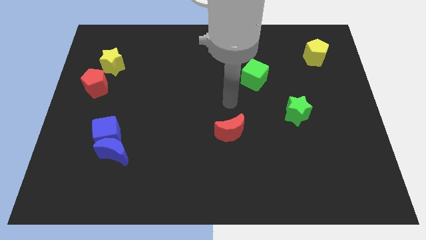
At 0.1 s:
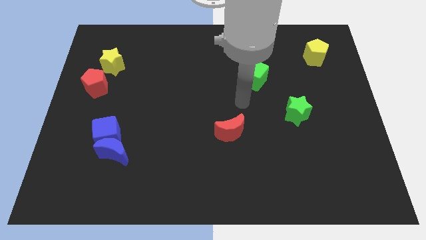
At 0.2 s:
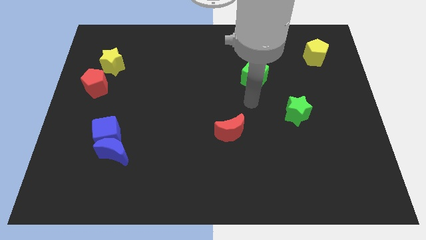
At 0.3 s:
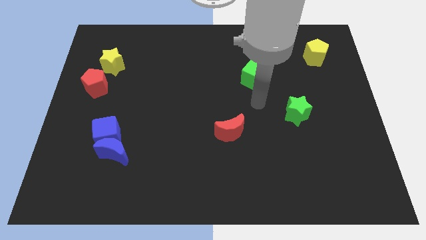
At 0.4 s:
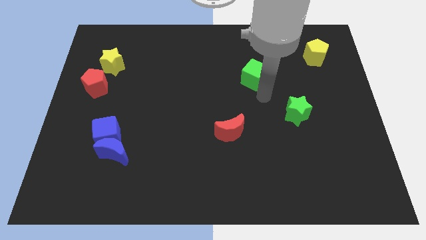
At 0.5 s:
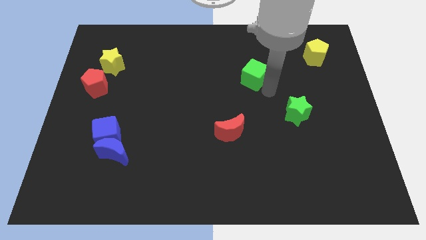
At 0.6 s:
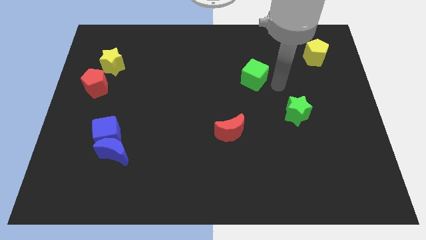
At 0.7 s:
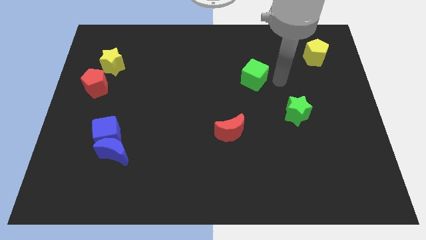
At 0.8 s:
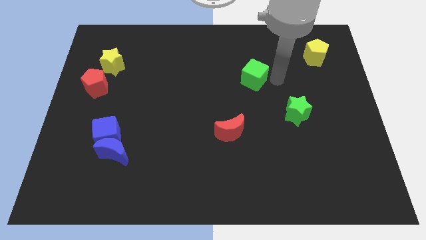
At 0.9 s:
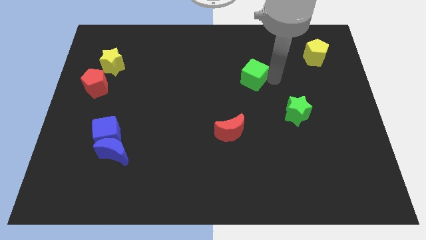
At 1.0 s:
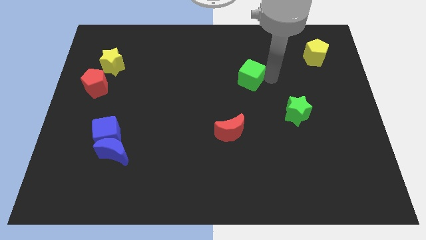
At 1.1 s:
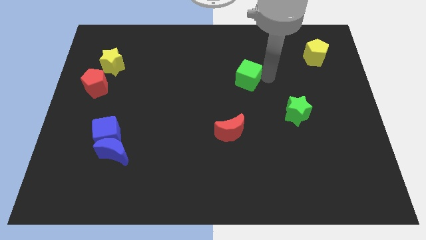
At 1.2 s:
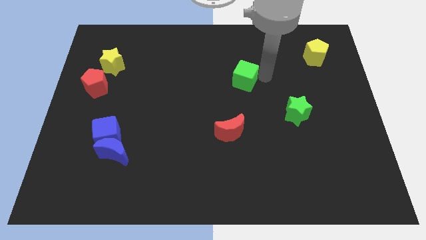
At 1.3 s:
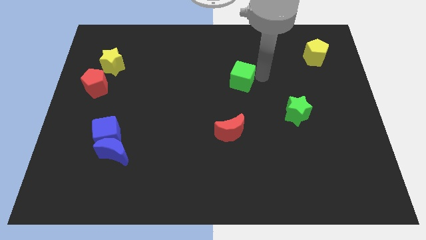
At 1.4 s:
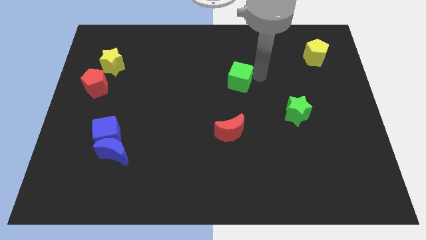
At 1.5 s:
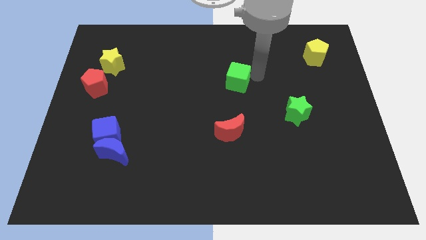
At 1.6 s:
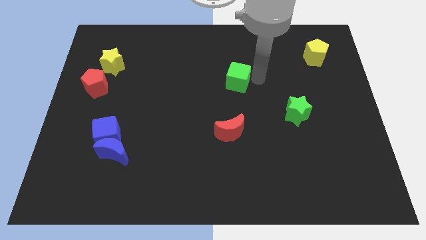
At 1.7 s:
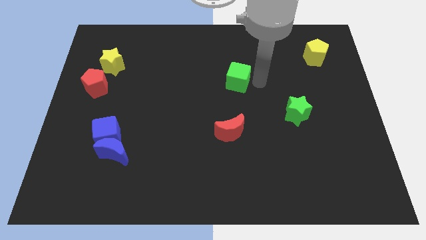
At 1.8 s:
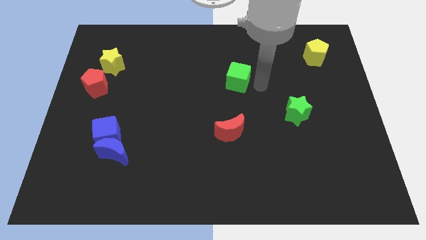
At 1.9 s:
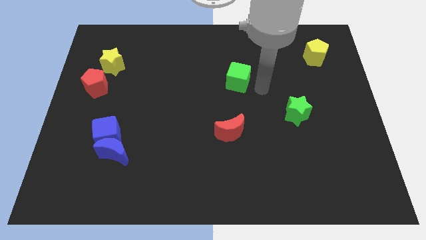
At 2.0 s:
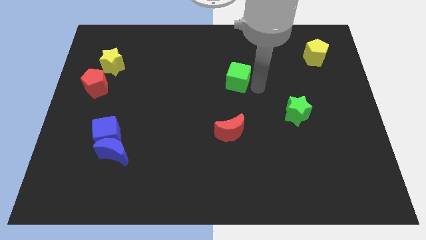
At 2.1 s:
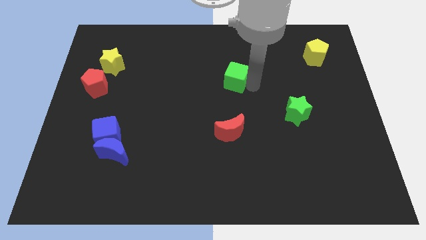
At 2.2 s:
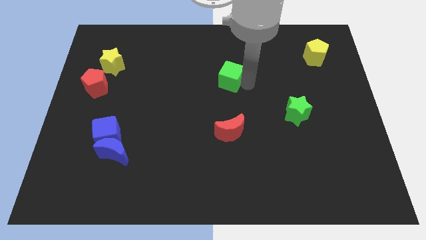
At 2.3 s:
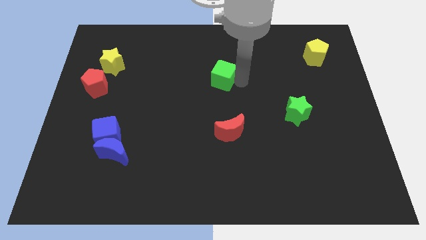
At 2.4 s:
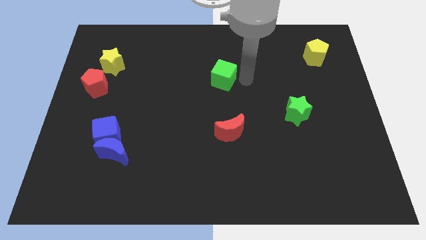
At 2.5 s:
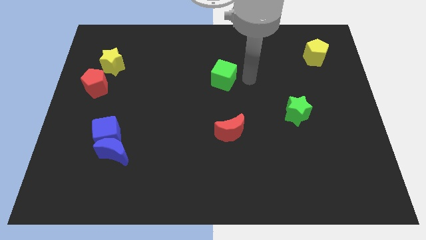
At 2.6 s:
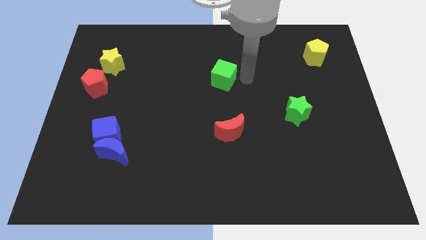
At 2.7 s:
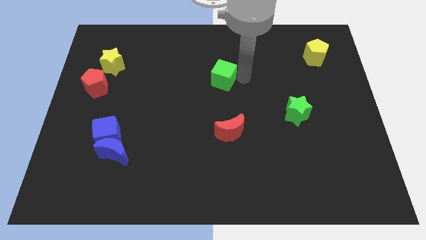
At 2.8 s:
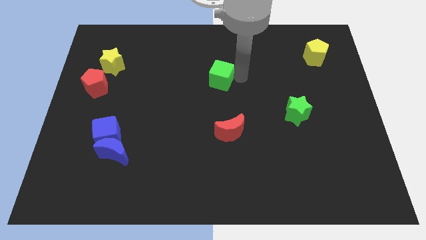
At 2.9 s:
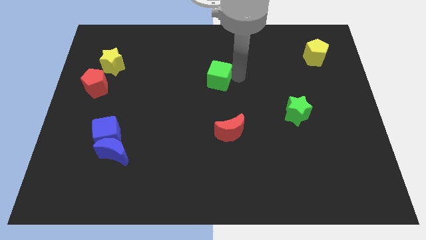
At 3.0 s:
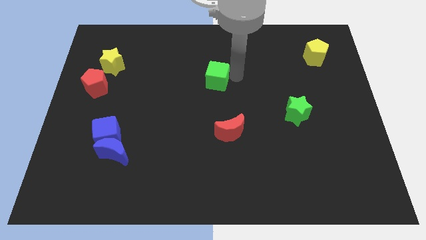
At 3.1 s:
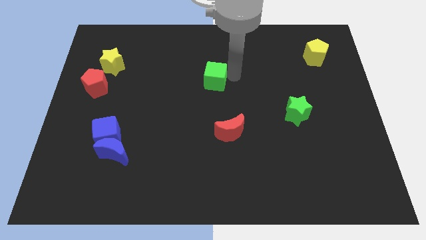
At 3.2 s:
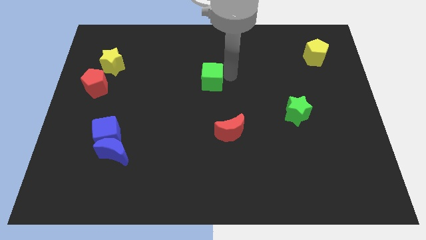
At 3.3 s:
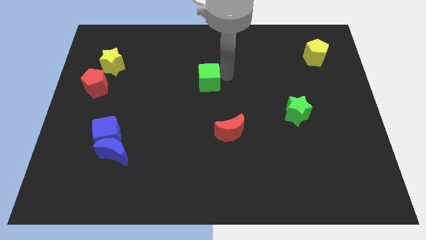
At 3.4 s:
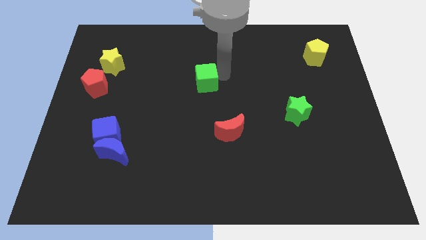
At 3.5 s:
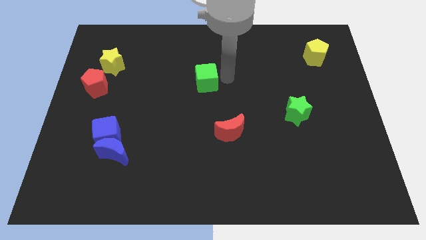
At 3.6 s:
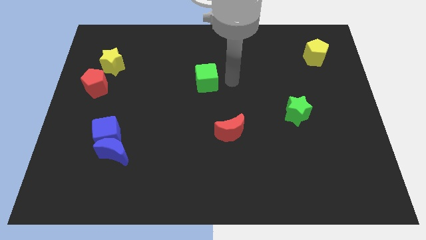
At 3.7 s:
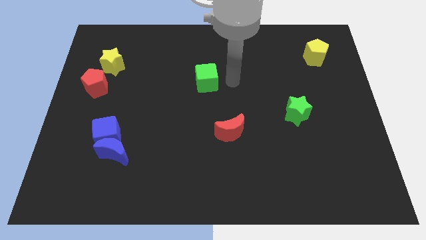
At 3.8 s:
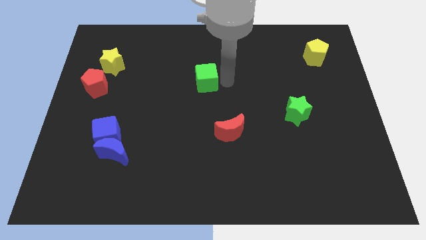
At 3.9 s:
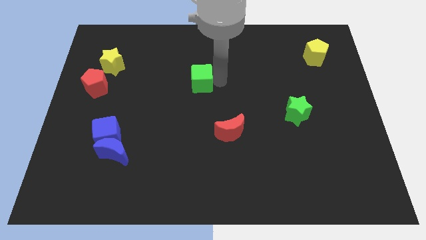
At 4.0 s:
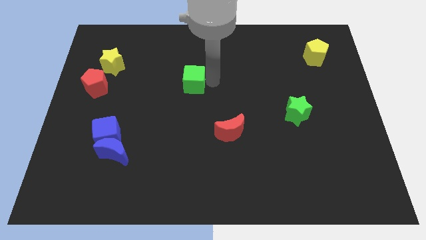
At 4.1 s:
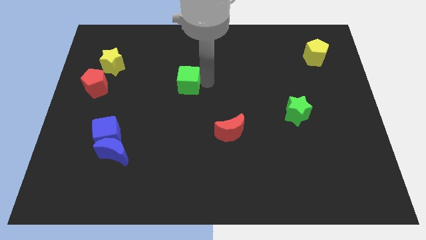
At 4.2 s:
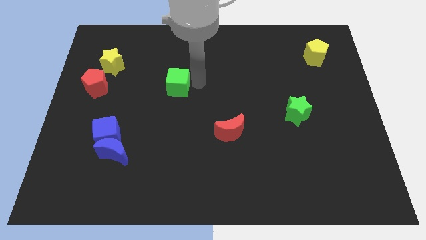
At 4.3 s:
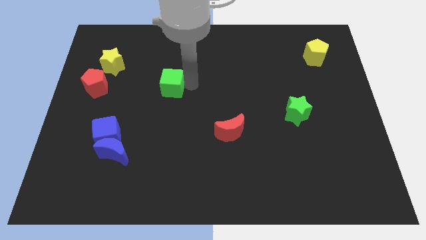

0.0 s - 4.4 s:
slide the green cube left

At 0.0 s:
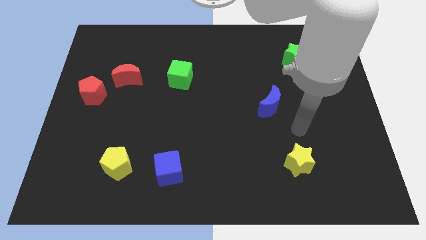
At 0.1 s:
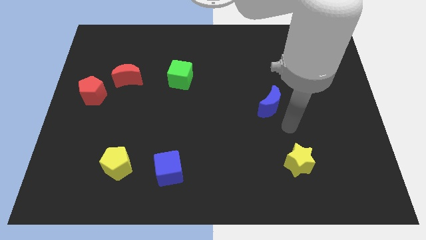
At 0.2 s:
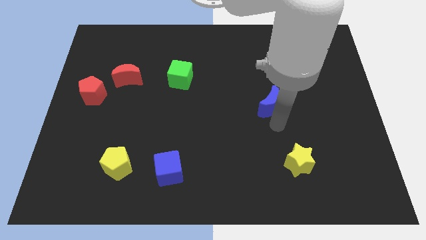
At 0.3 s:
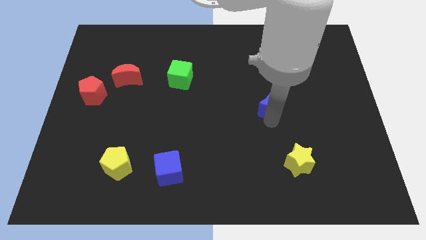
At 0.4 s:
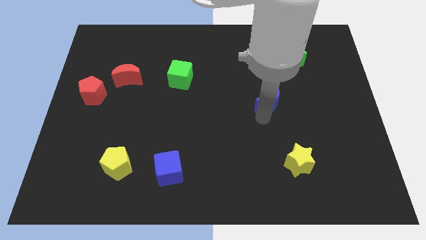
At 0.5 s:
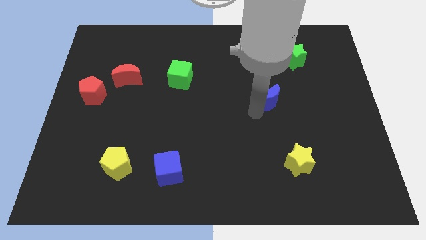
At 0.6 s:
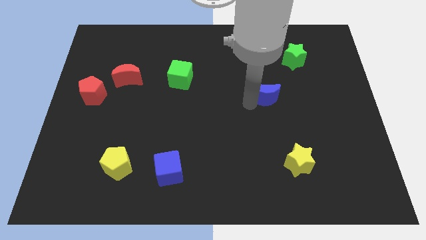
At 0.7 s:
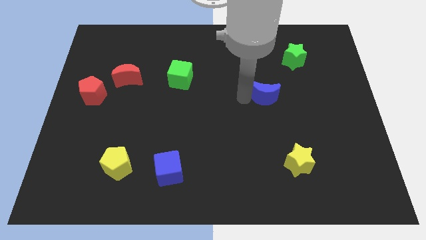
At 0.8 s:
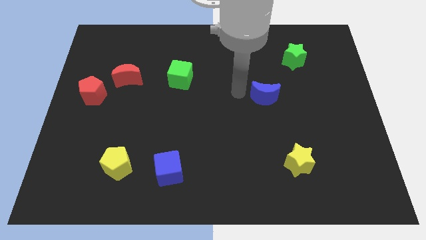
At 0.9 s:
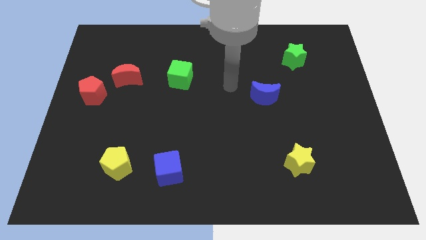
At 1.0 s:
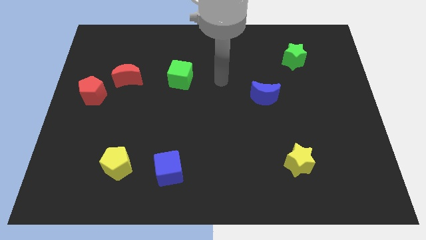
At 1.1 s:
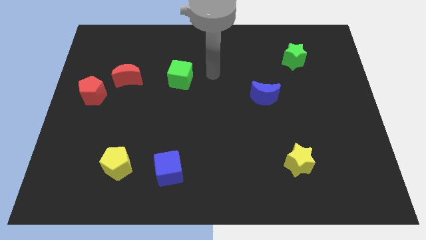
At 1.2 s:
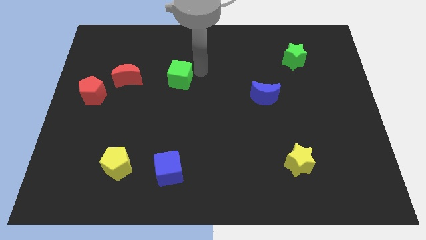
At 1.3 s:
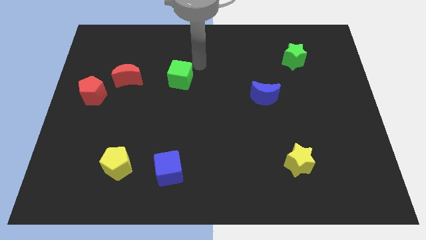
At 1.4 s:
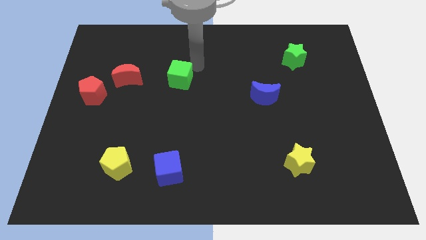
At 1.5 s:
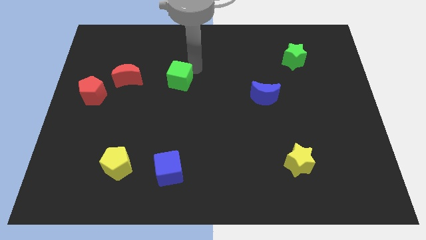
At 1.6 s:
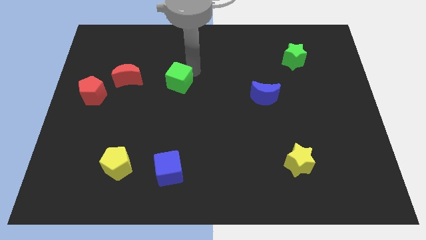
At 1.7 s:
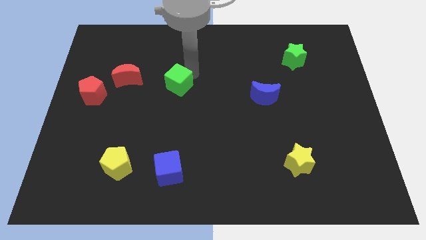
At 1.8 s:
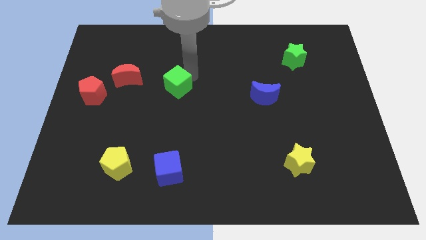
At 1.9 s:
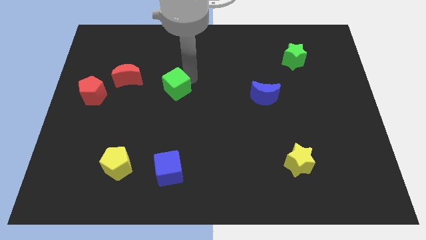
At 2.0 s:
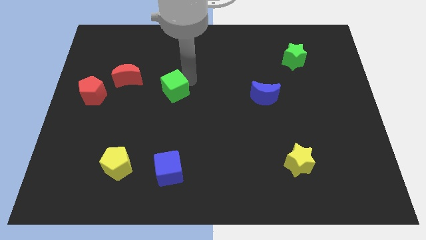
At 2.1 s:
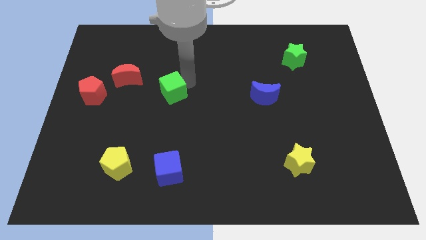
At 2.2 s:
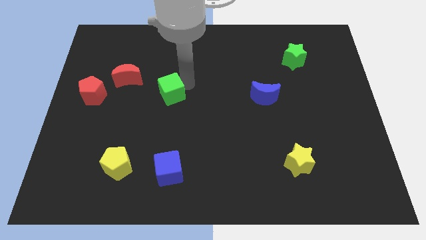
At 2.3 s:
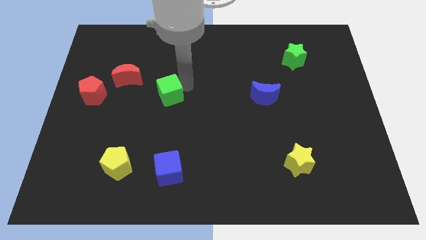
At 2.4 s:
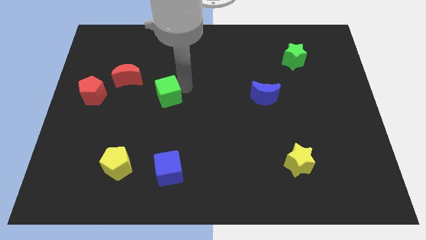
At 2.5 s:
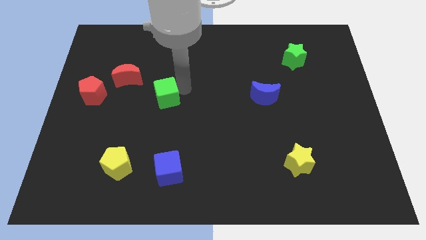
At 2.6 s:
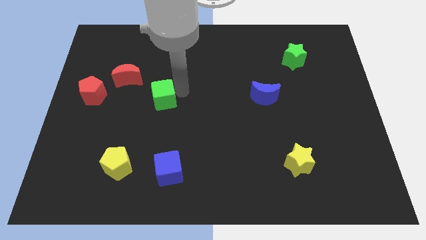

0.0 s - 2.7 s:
slightly move the green cube down and then left

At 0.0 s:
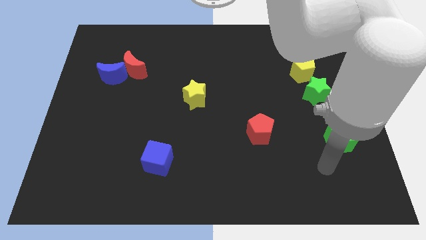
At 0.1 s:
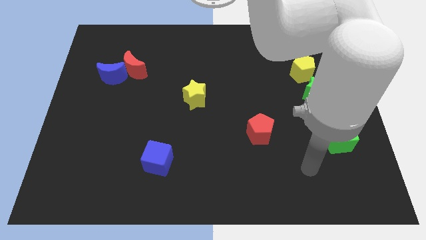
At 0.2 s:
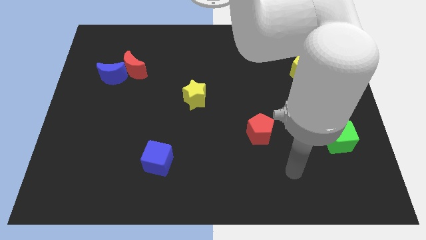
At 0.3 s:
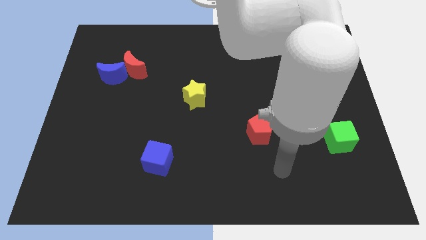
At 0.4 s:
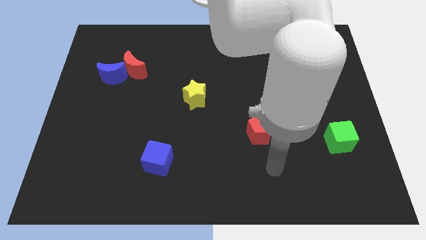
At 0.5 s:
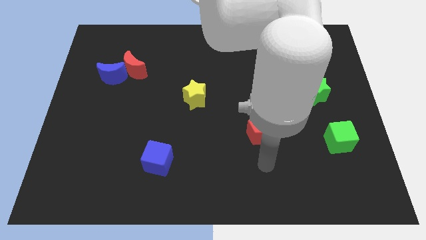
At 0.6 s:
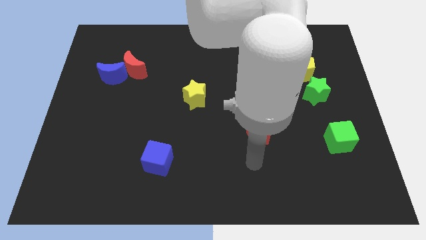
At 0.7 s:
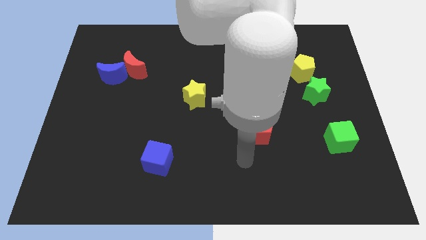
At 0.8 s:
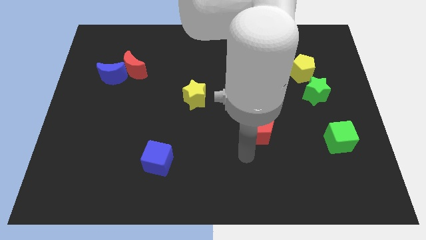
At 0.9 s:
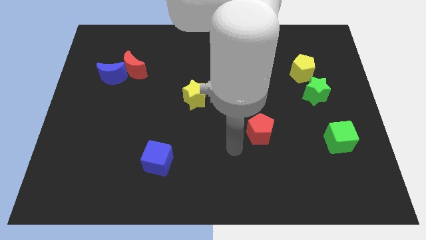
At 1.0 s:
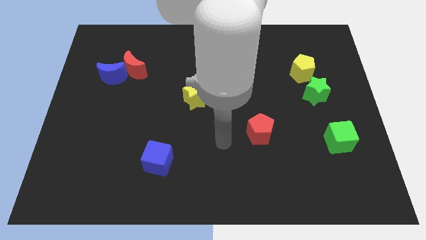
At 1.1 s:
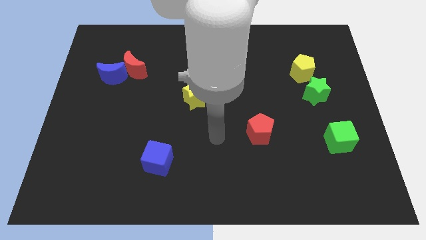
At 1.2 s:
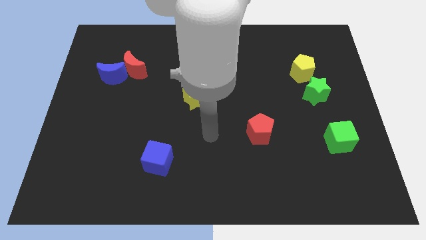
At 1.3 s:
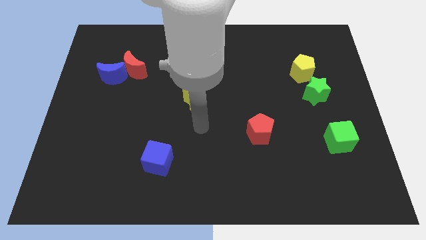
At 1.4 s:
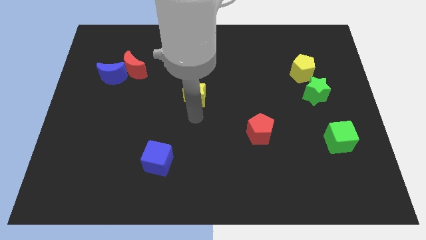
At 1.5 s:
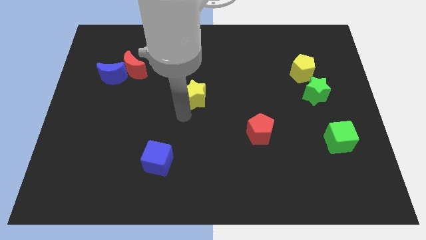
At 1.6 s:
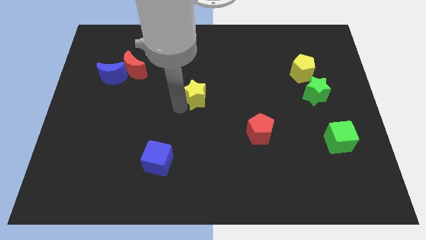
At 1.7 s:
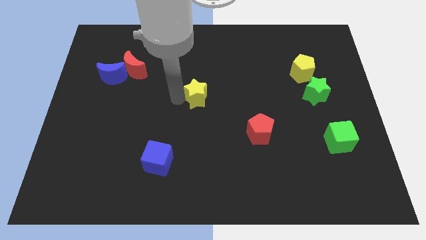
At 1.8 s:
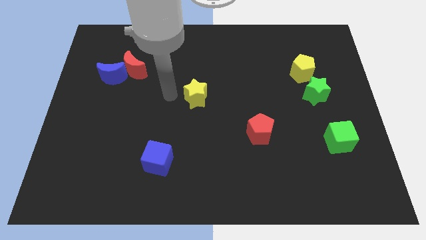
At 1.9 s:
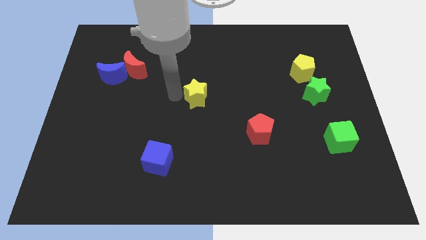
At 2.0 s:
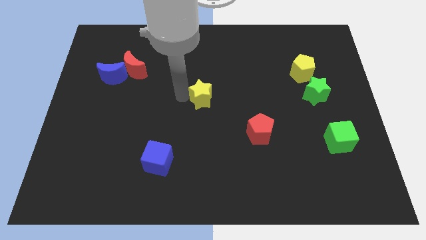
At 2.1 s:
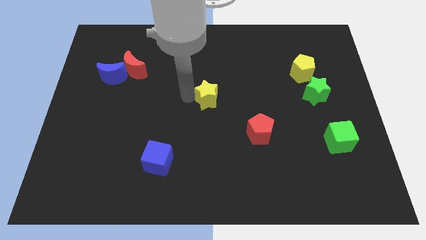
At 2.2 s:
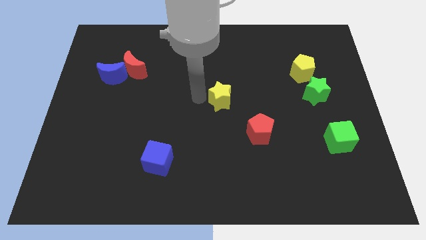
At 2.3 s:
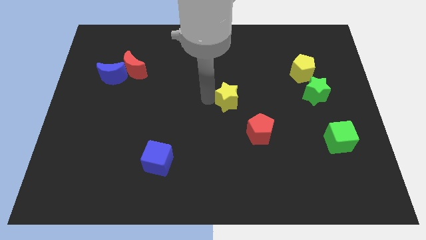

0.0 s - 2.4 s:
slightly move the yellow star to the right
